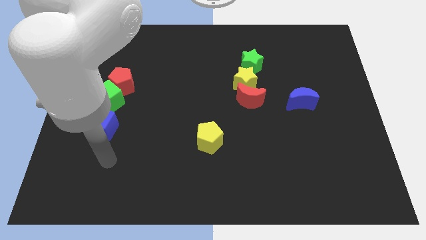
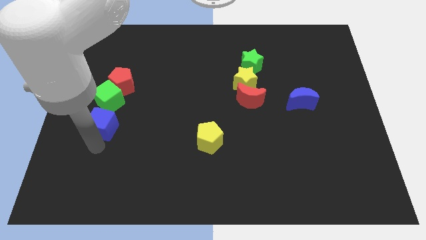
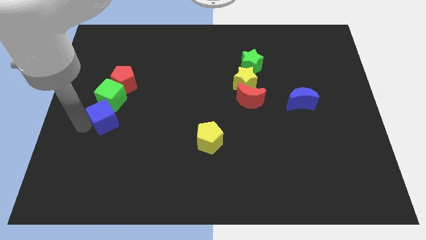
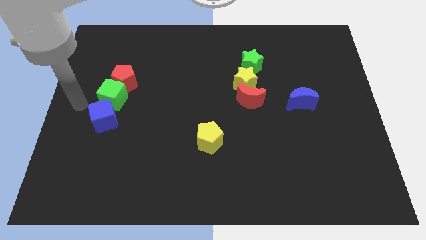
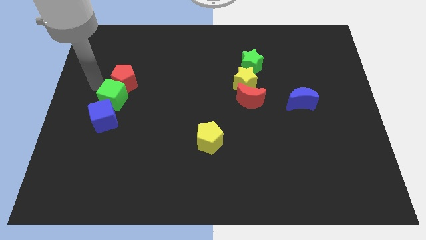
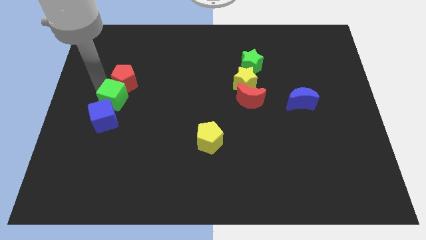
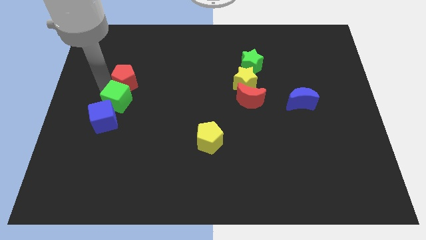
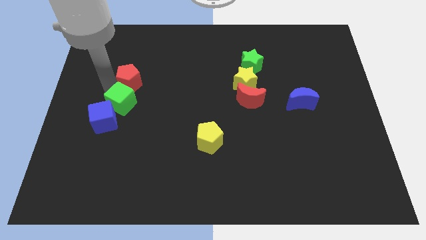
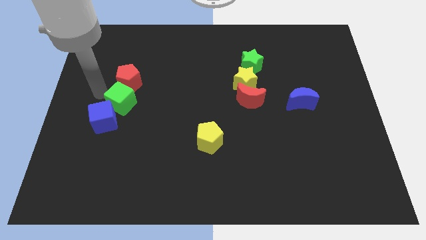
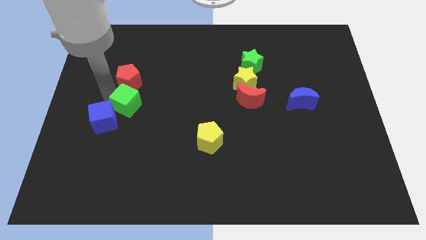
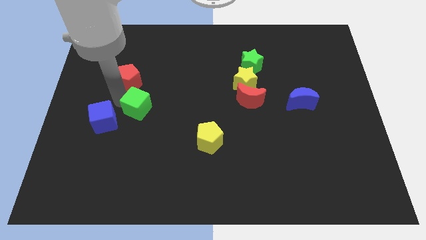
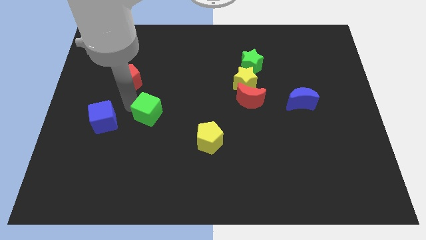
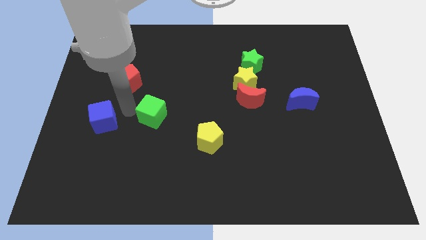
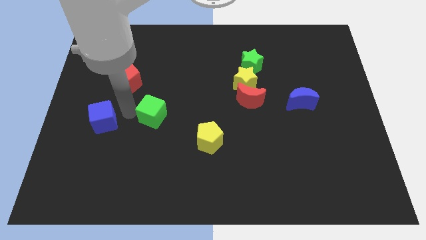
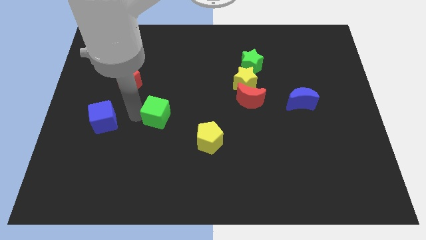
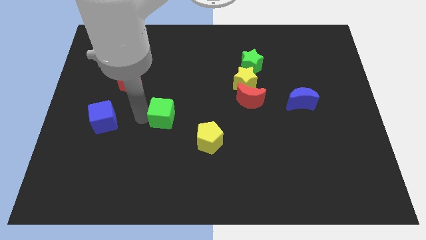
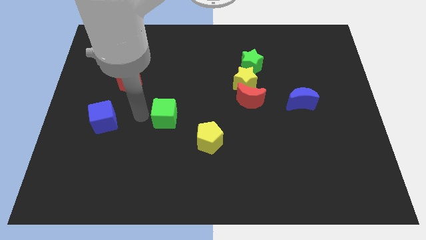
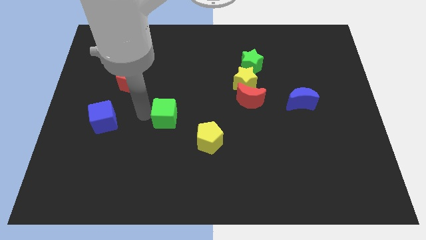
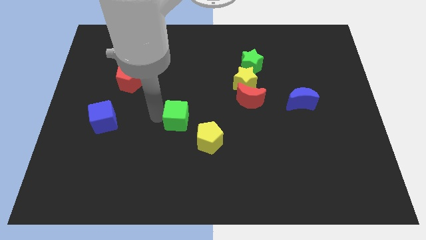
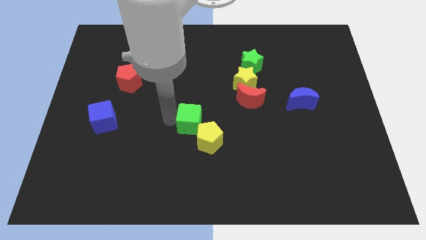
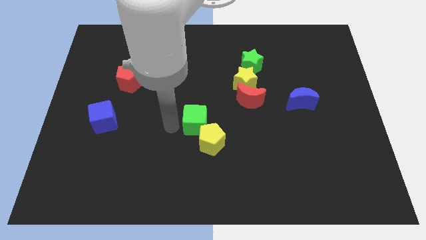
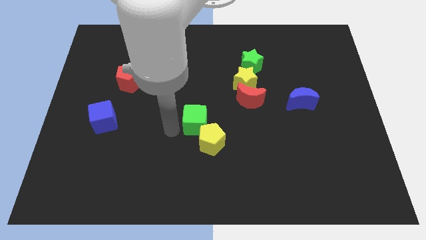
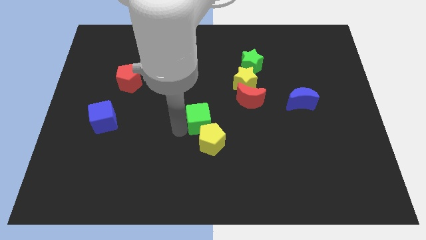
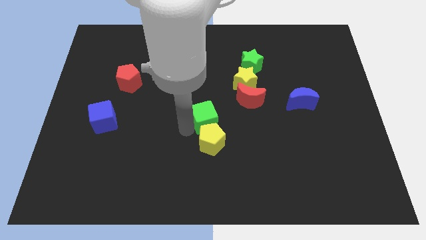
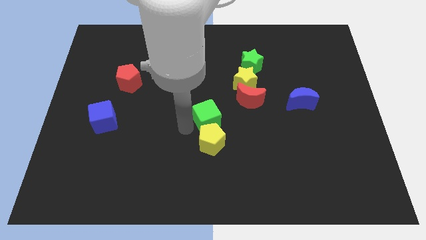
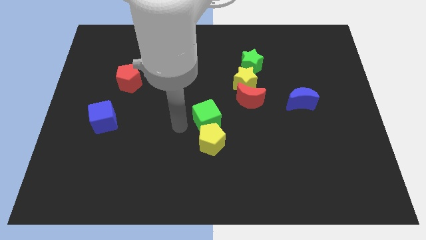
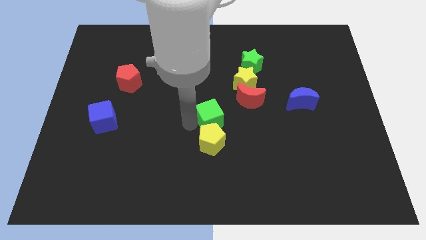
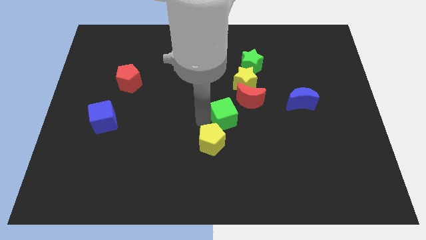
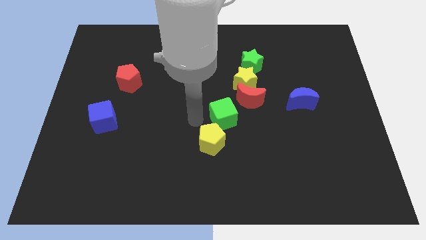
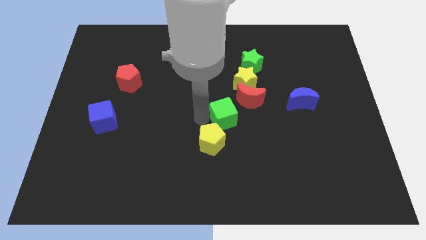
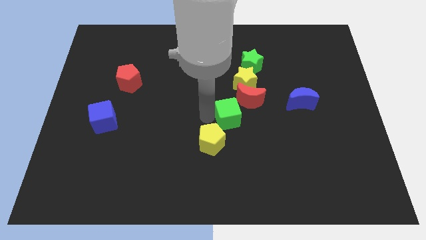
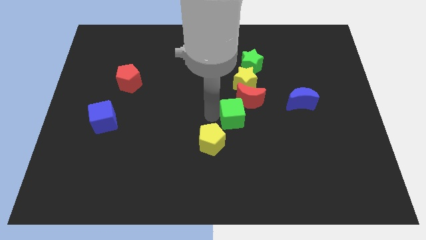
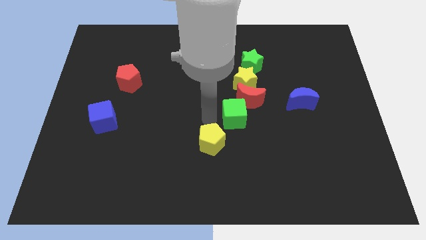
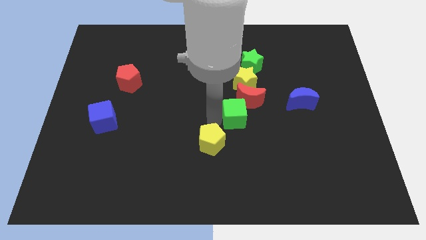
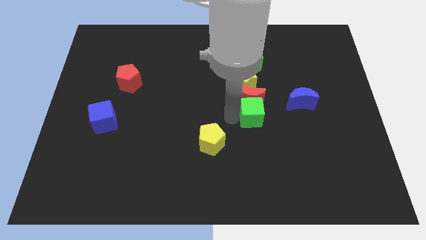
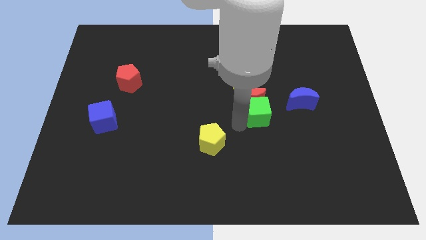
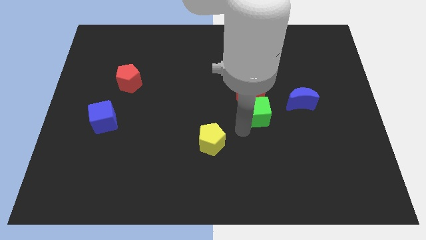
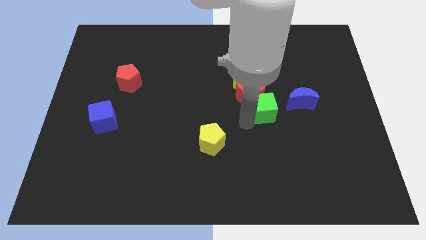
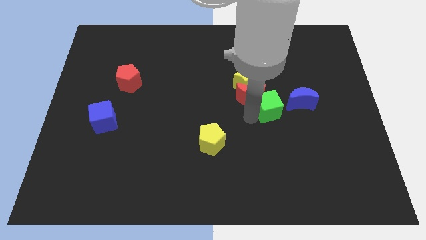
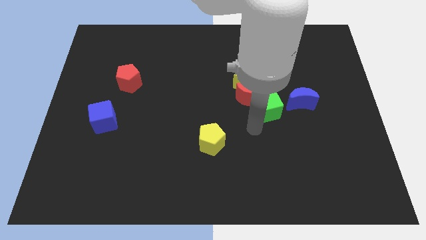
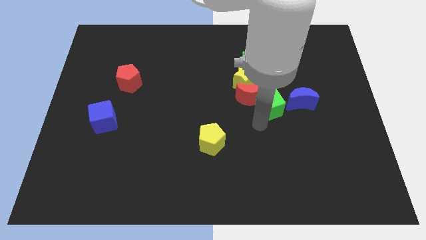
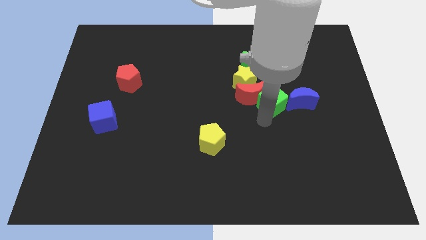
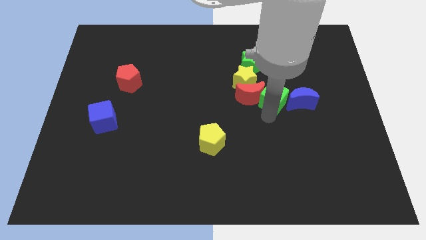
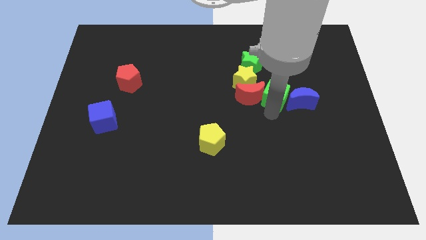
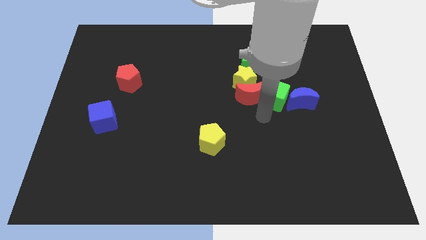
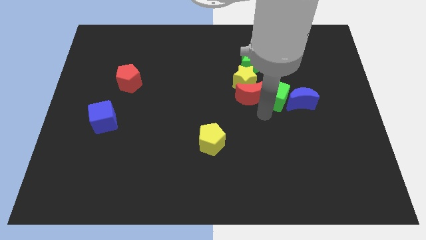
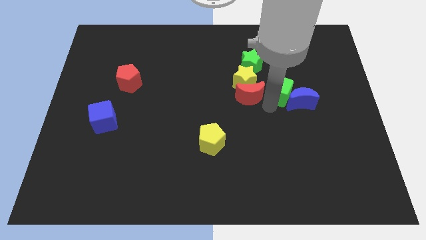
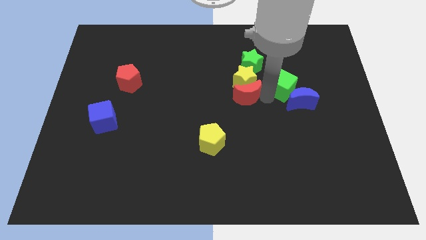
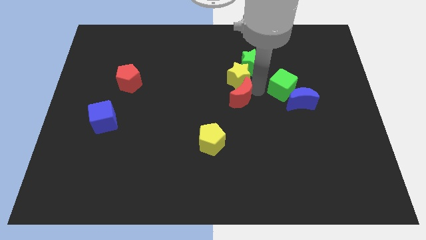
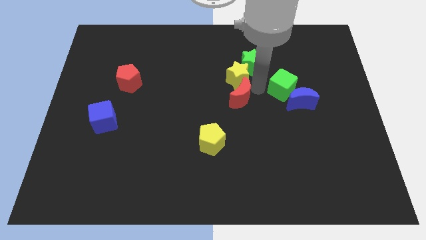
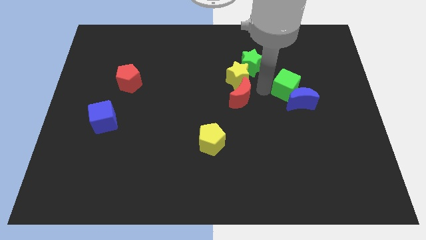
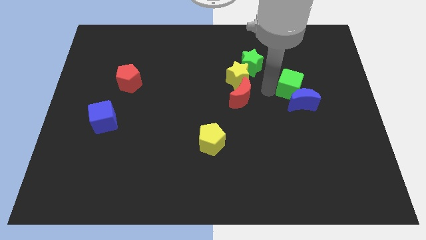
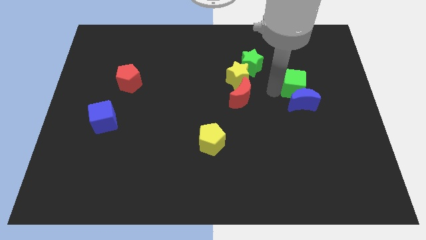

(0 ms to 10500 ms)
slide the green cube to the top right of the blue moon

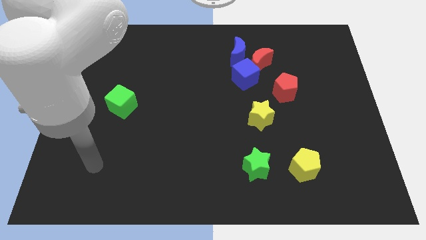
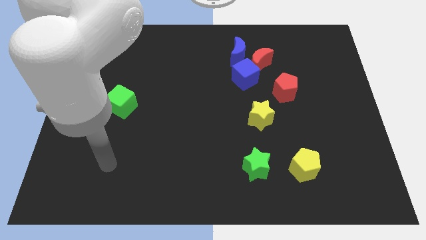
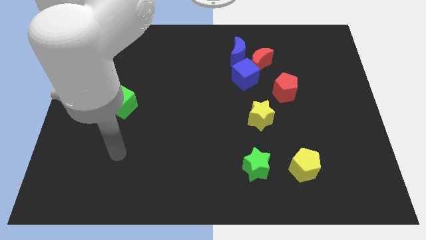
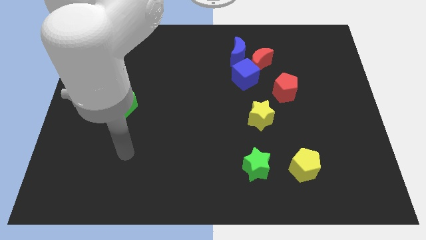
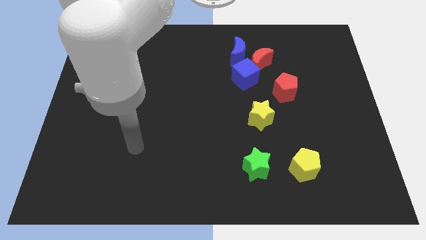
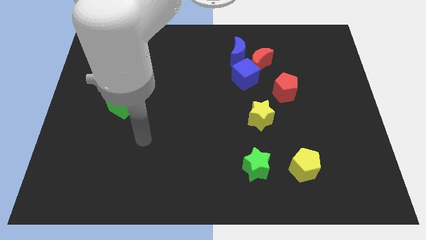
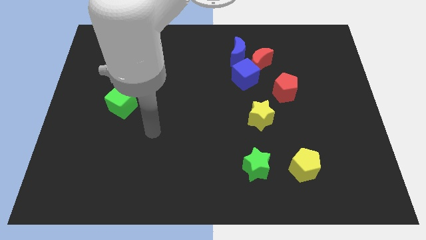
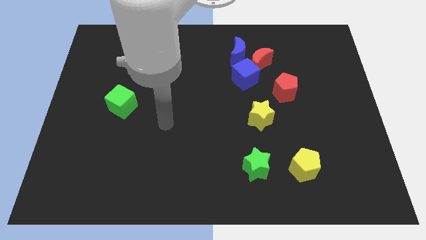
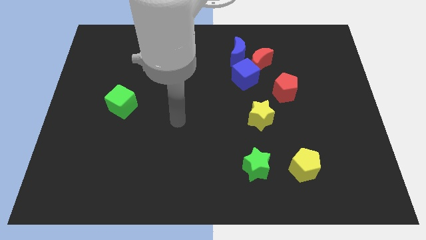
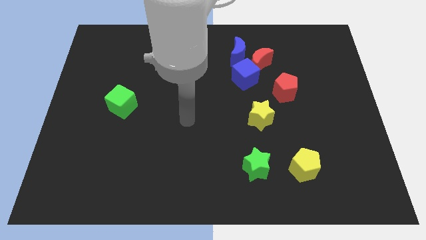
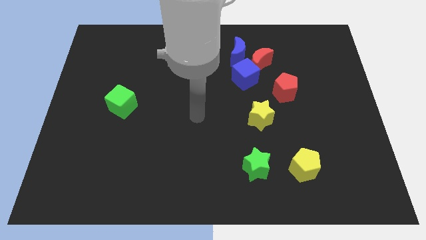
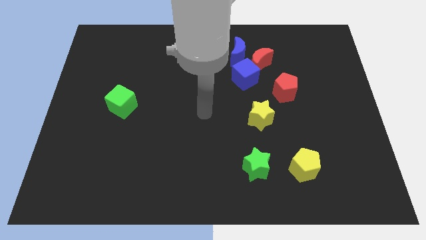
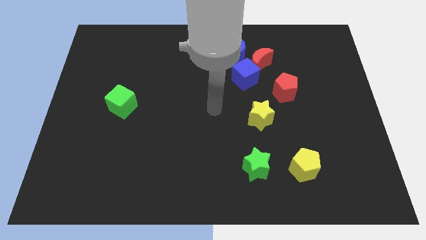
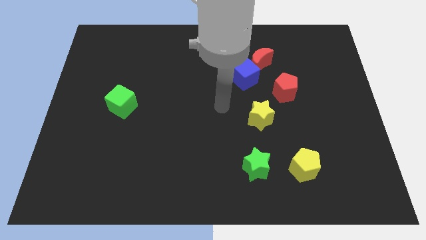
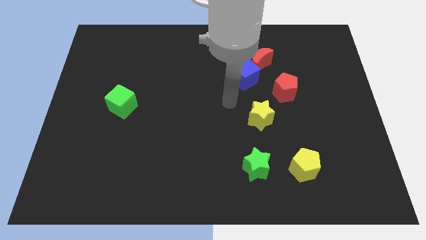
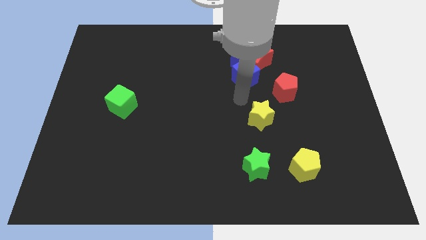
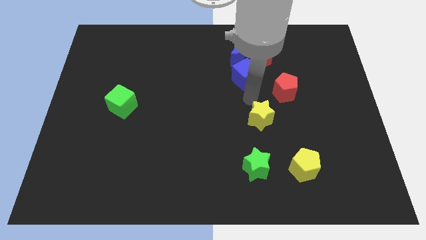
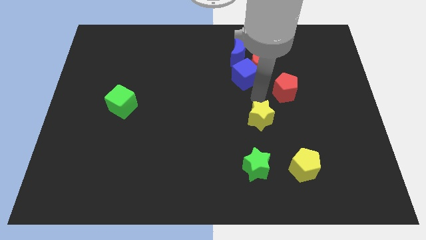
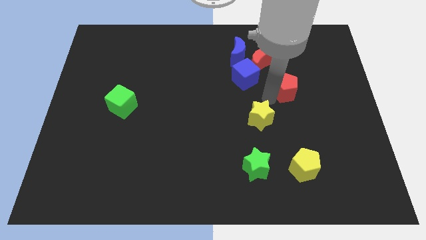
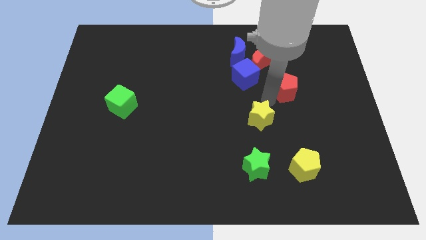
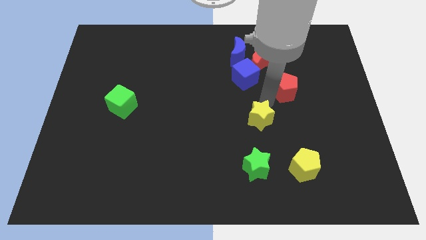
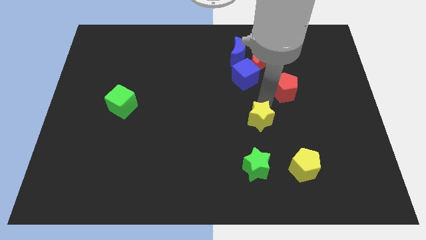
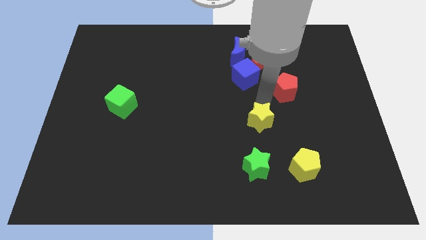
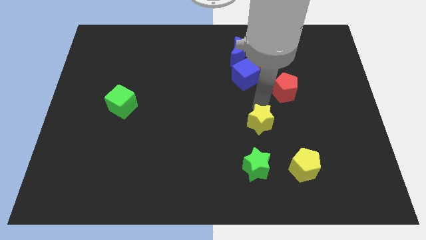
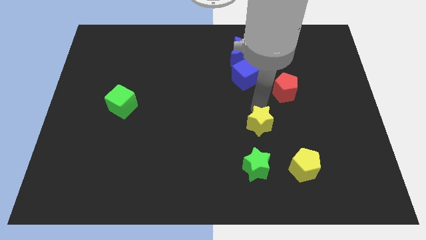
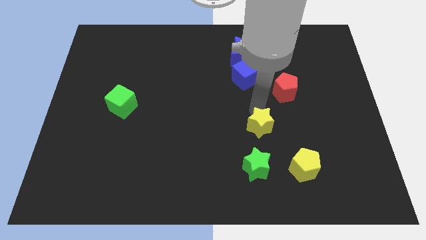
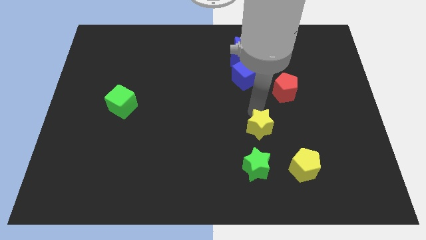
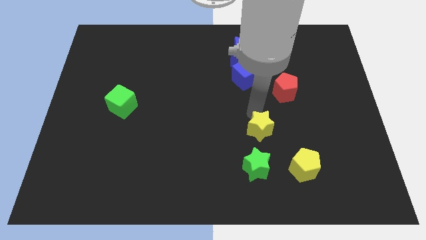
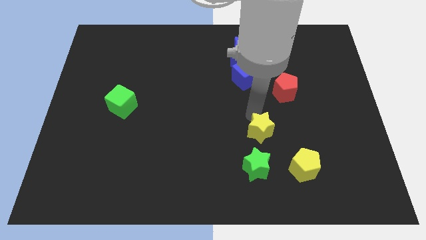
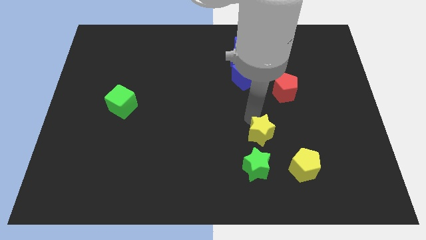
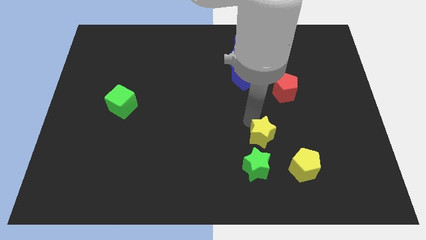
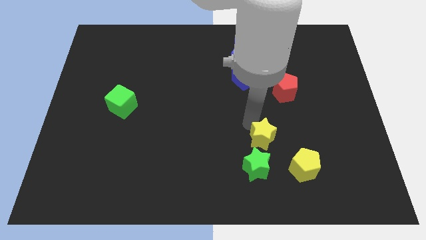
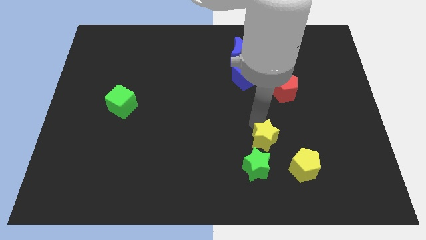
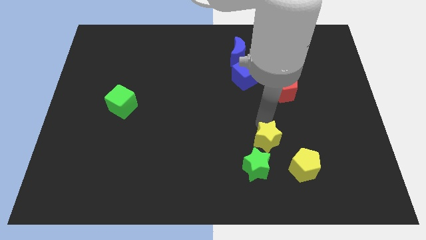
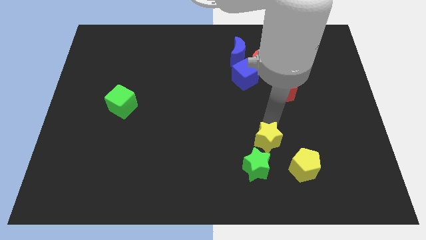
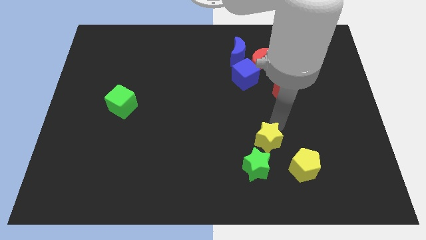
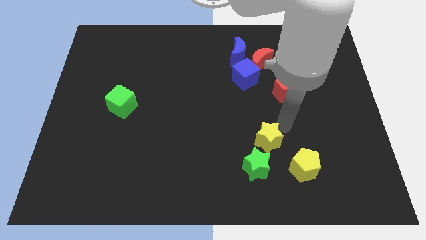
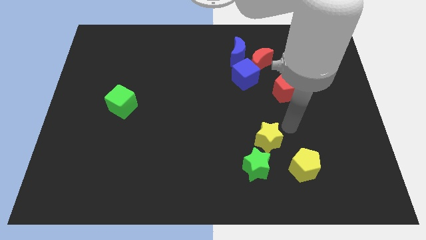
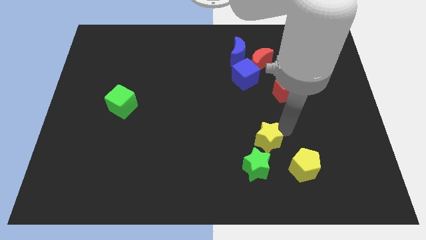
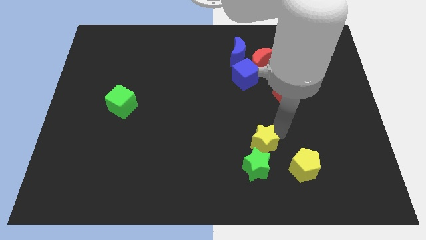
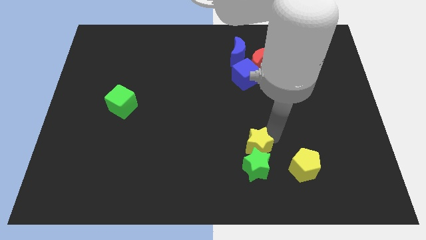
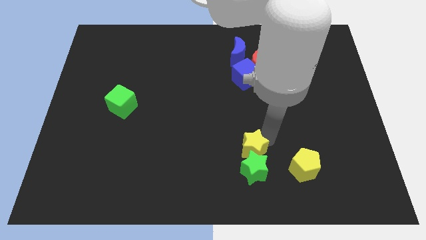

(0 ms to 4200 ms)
move the yellow star left of the yellow pentagon
